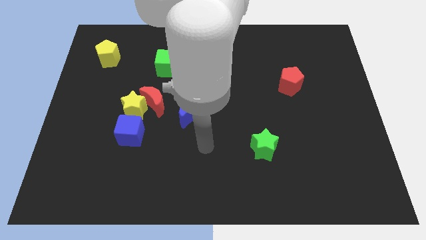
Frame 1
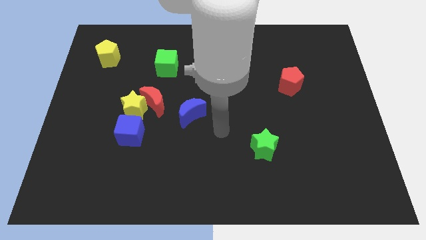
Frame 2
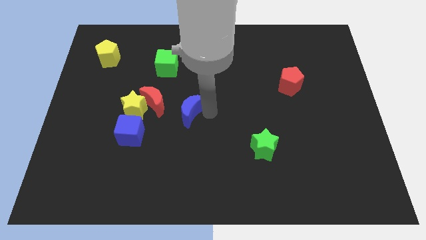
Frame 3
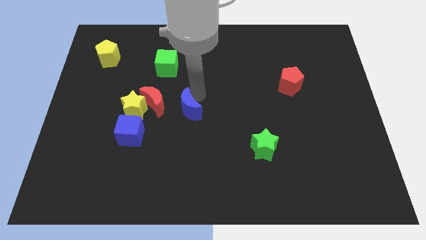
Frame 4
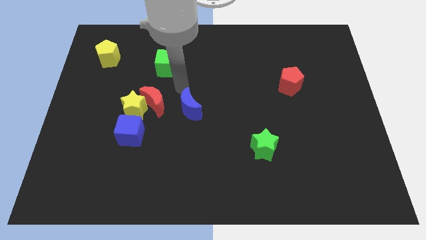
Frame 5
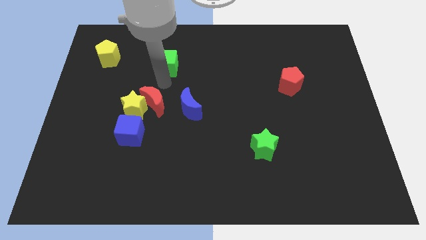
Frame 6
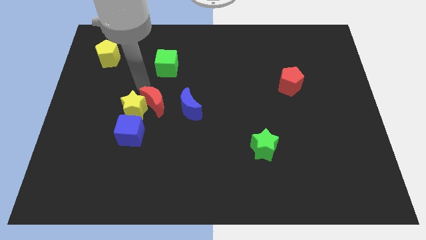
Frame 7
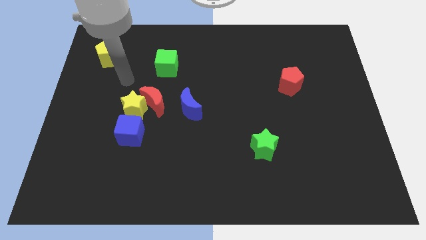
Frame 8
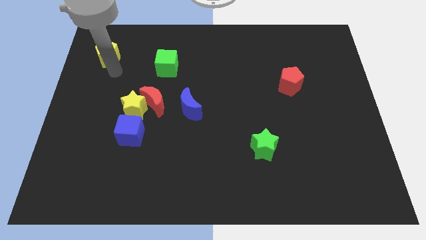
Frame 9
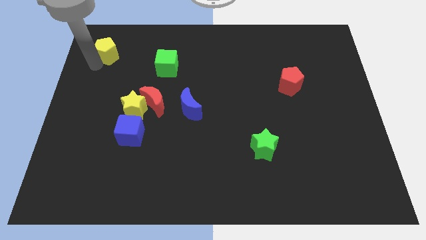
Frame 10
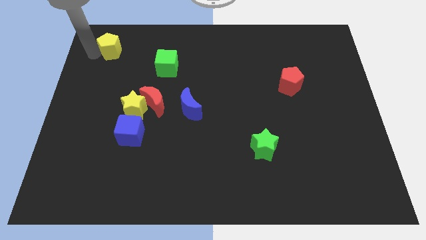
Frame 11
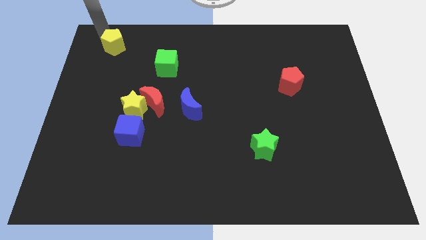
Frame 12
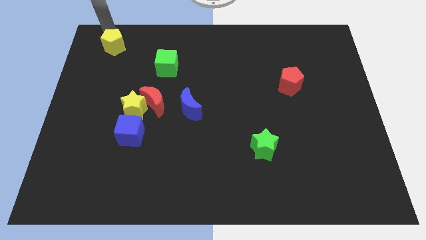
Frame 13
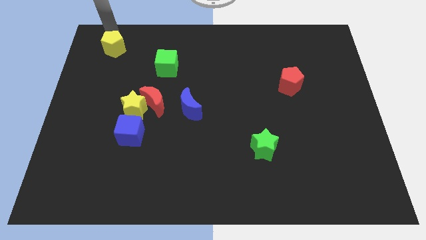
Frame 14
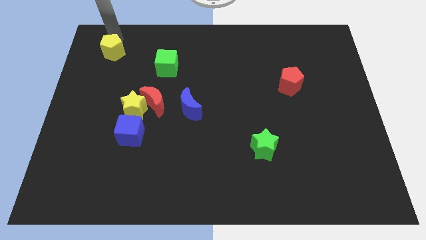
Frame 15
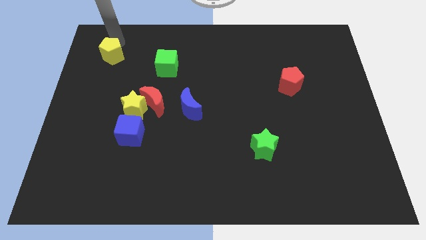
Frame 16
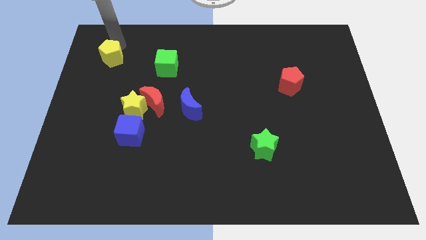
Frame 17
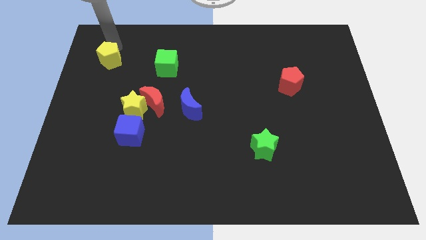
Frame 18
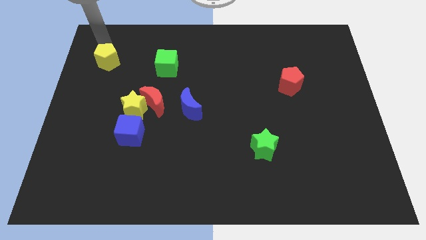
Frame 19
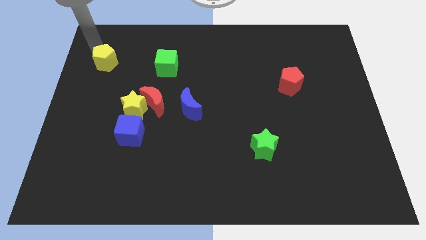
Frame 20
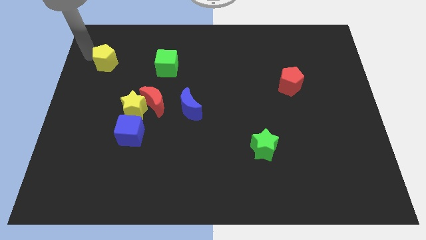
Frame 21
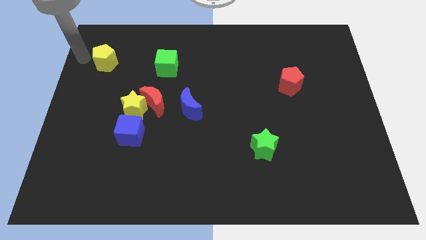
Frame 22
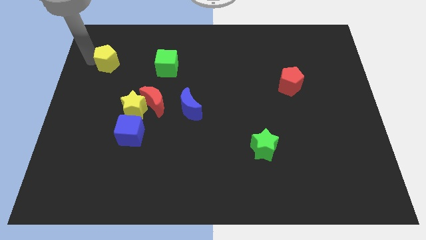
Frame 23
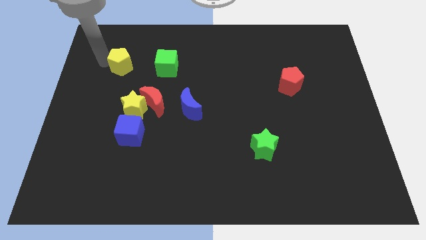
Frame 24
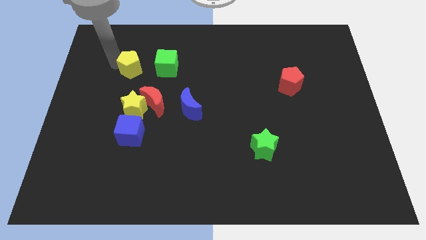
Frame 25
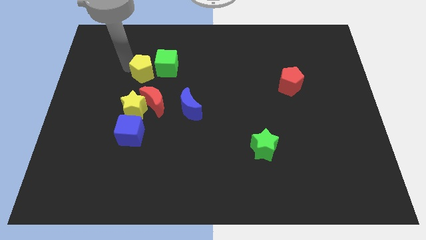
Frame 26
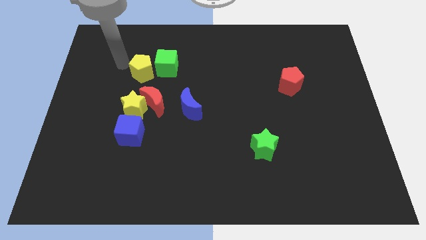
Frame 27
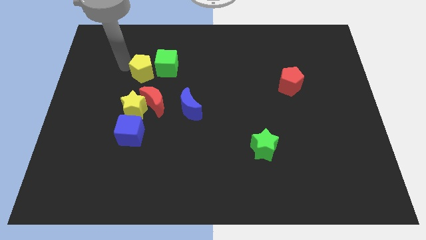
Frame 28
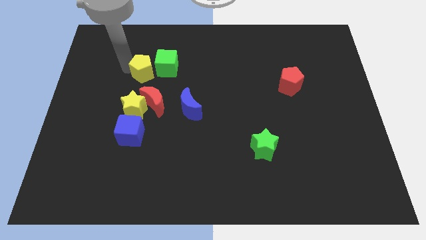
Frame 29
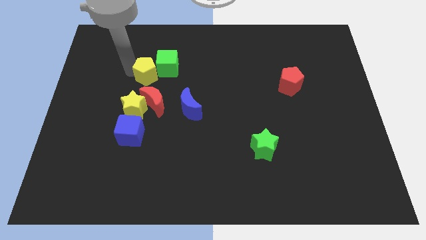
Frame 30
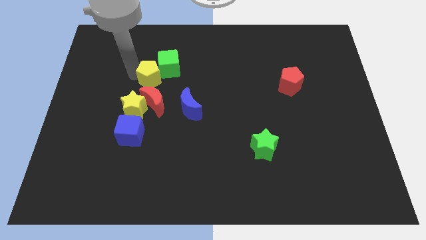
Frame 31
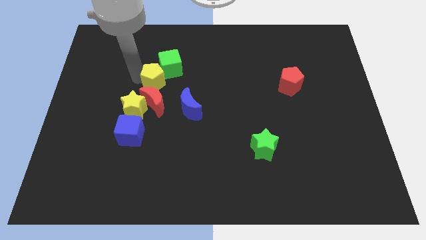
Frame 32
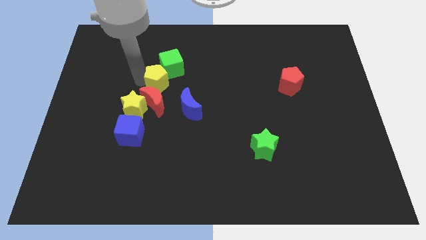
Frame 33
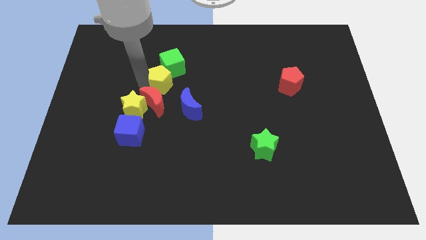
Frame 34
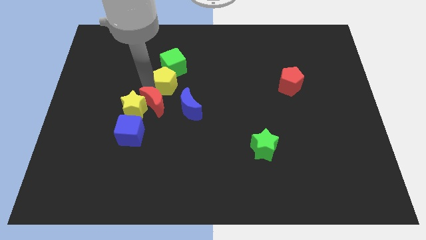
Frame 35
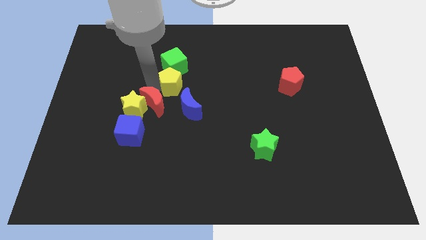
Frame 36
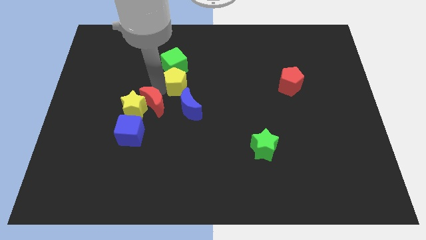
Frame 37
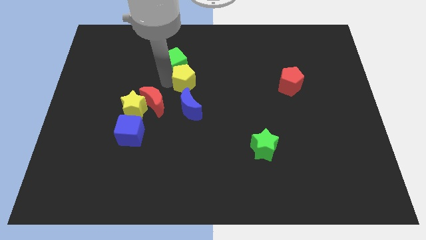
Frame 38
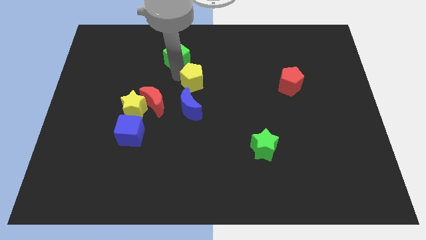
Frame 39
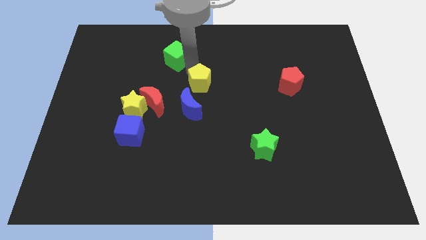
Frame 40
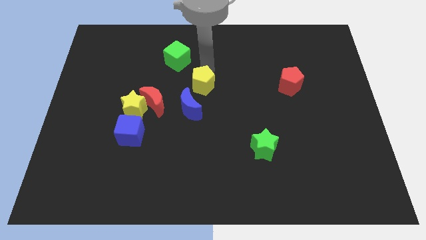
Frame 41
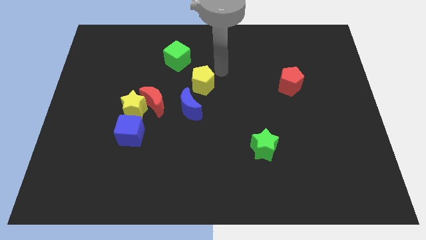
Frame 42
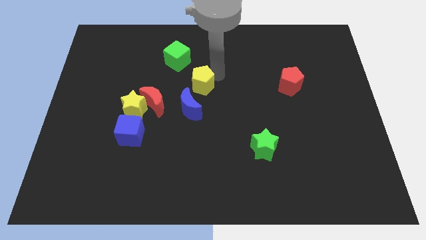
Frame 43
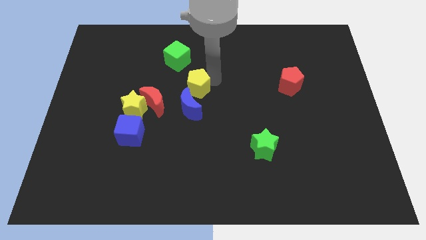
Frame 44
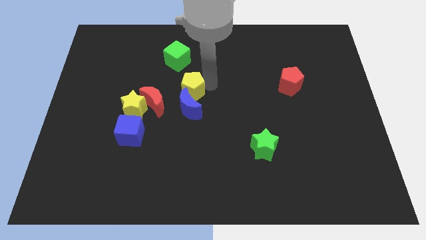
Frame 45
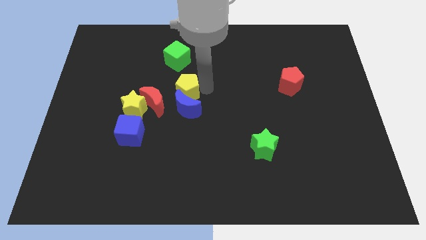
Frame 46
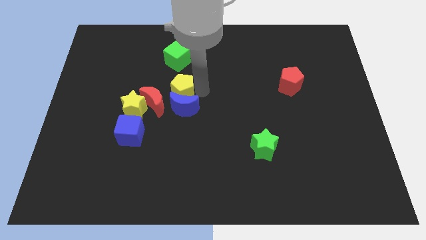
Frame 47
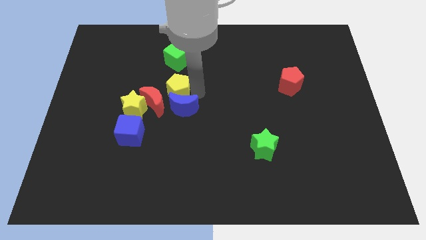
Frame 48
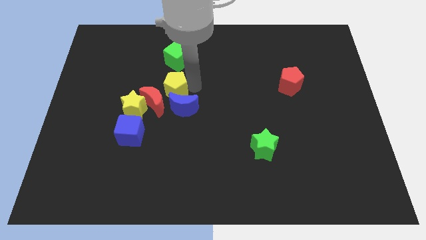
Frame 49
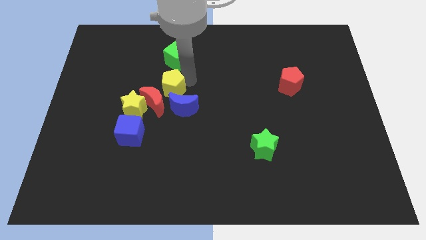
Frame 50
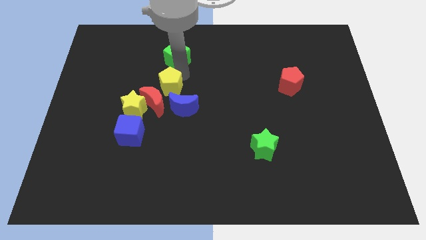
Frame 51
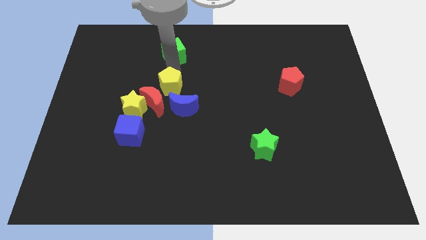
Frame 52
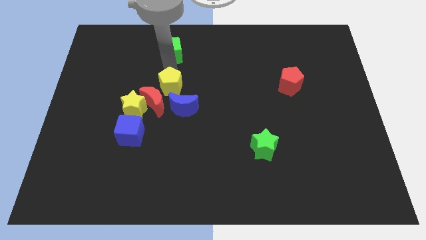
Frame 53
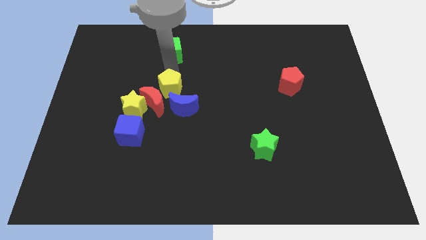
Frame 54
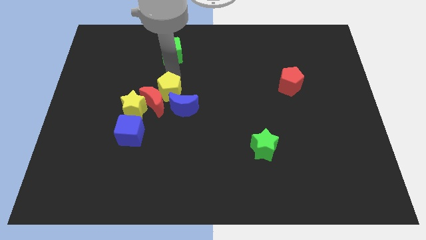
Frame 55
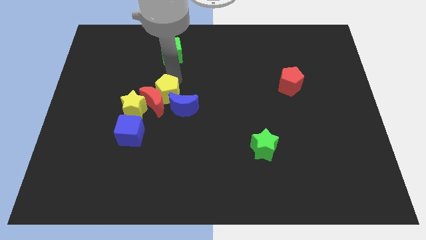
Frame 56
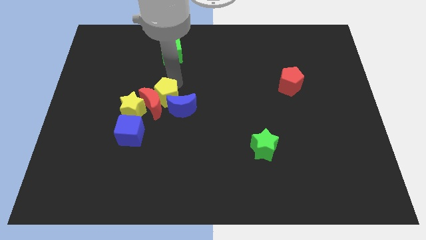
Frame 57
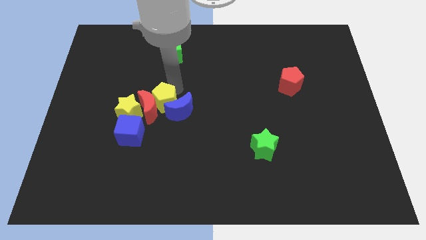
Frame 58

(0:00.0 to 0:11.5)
put the yellow pentagon diagonally down and to the right of the red moon
